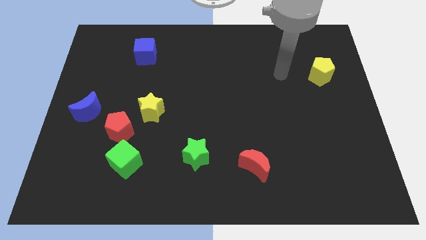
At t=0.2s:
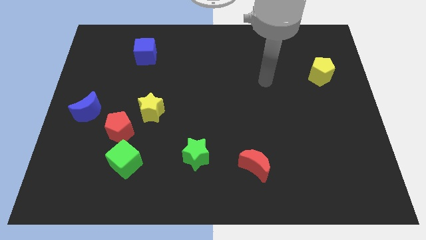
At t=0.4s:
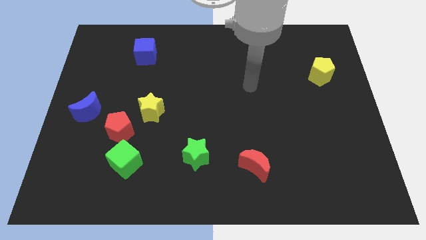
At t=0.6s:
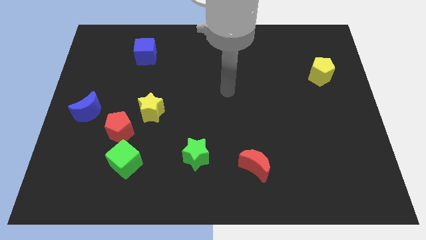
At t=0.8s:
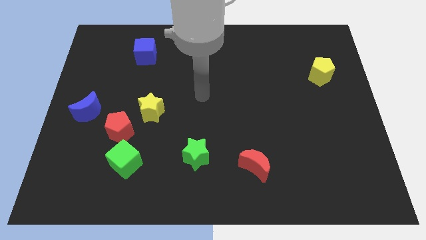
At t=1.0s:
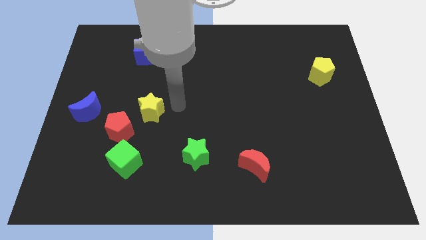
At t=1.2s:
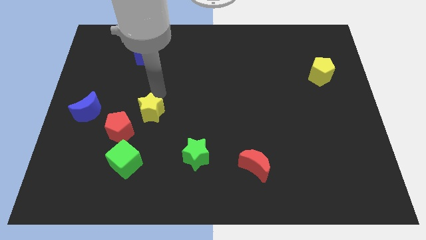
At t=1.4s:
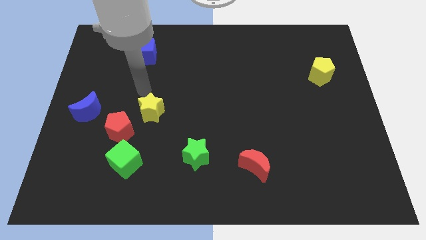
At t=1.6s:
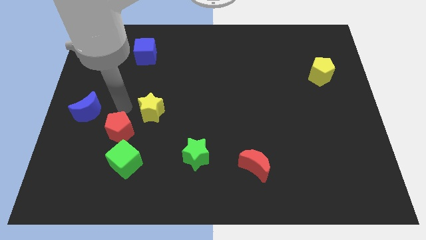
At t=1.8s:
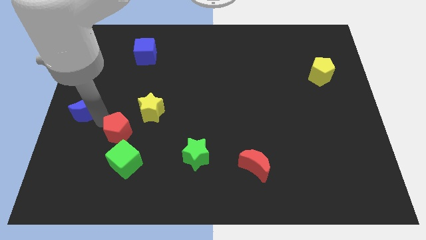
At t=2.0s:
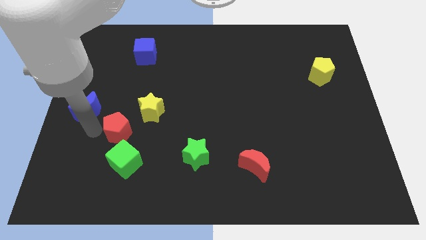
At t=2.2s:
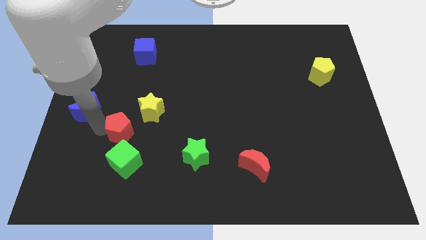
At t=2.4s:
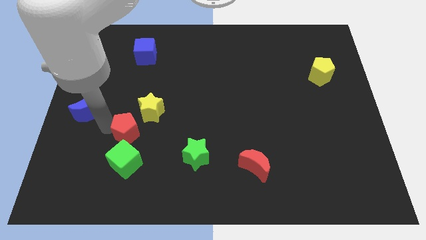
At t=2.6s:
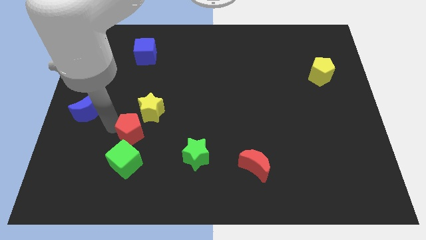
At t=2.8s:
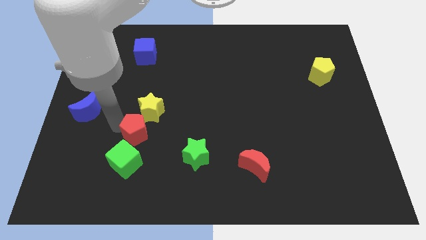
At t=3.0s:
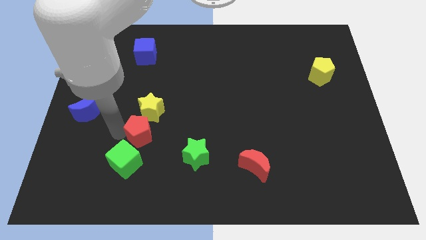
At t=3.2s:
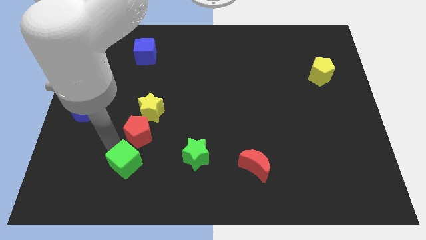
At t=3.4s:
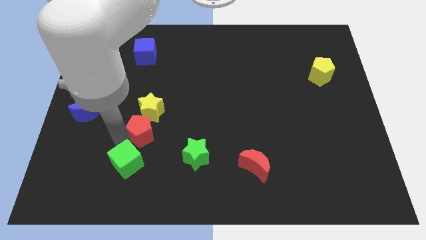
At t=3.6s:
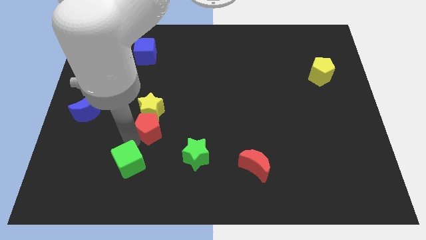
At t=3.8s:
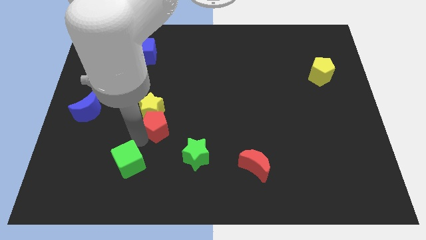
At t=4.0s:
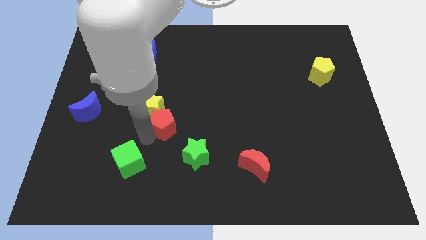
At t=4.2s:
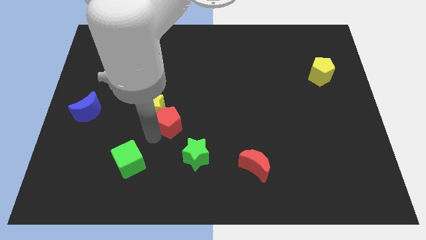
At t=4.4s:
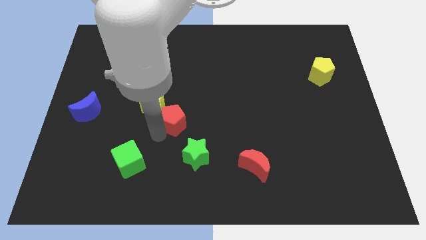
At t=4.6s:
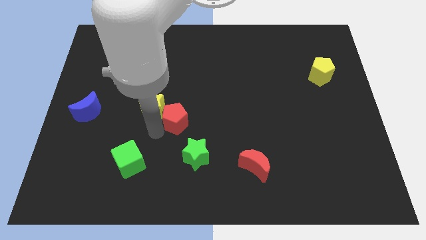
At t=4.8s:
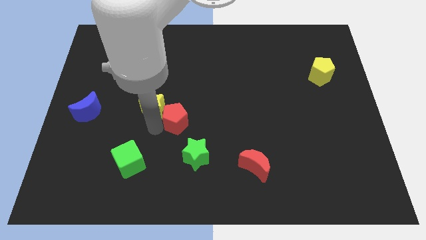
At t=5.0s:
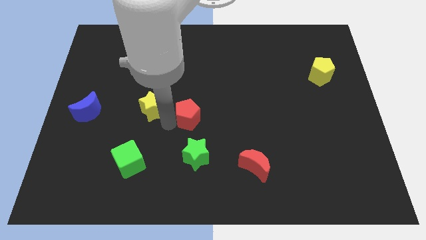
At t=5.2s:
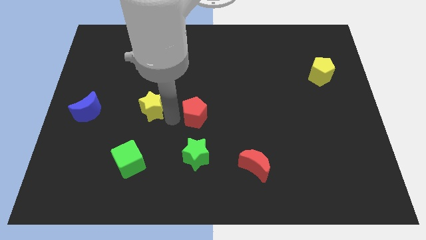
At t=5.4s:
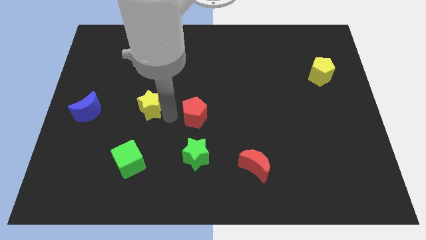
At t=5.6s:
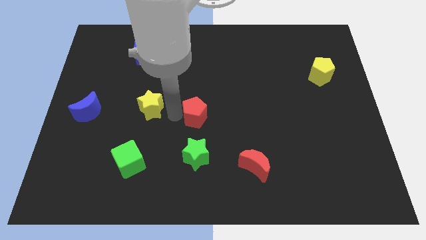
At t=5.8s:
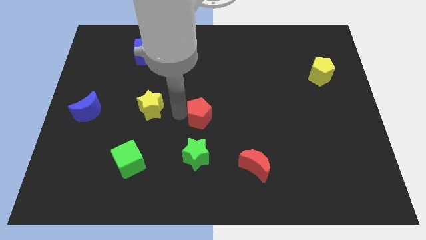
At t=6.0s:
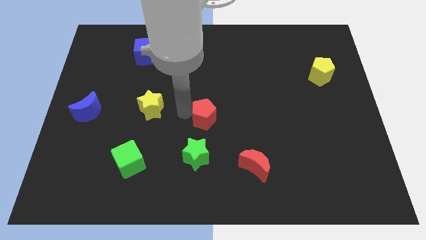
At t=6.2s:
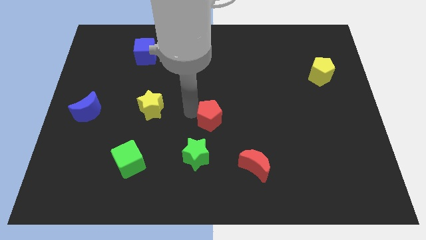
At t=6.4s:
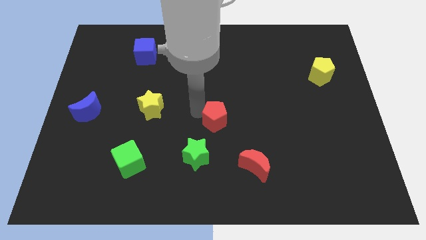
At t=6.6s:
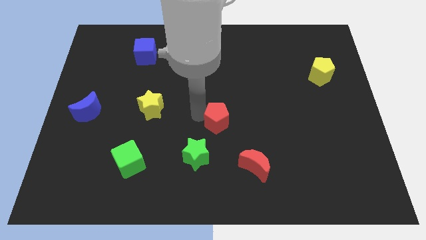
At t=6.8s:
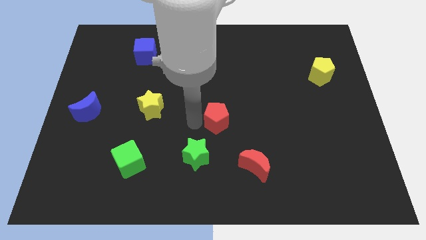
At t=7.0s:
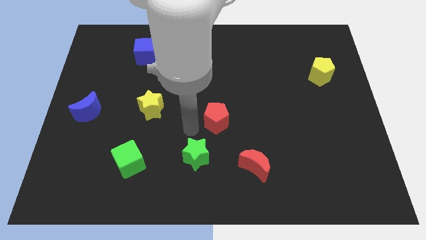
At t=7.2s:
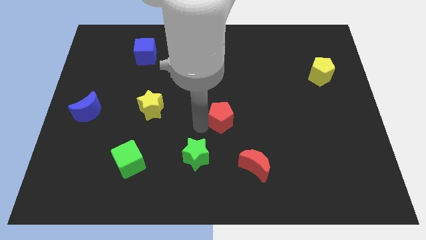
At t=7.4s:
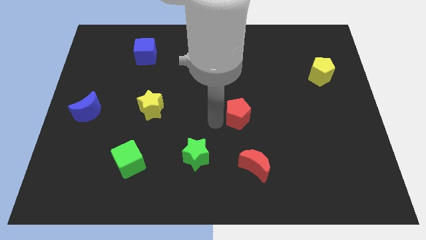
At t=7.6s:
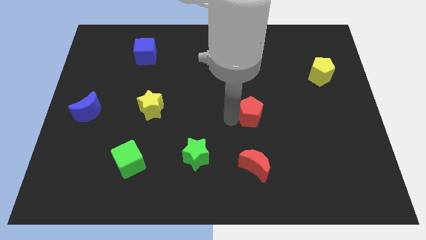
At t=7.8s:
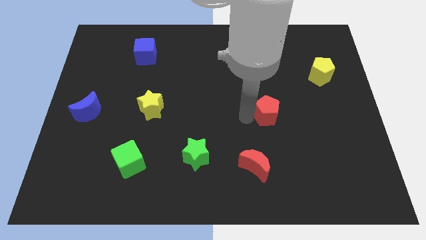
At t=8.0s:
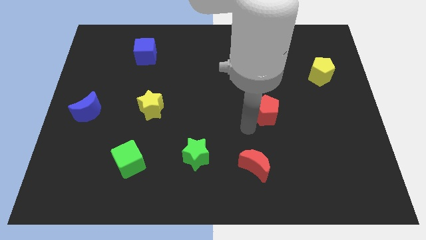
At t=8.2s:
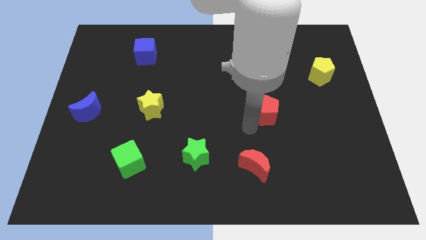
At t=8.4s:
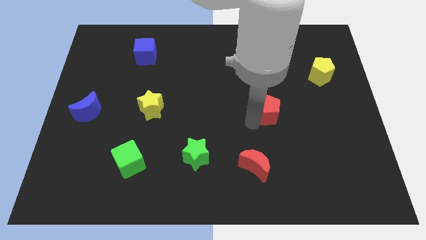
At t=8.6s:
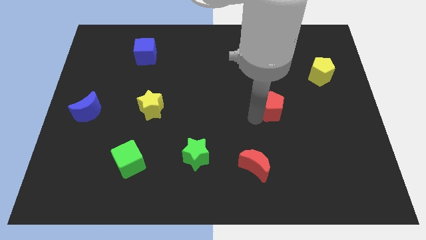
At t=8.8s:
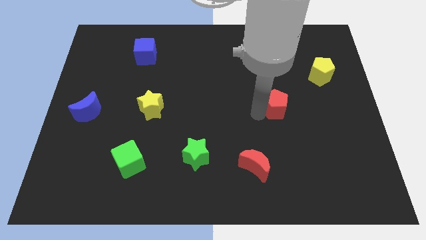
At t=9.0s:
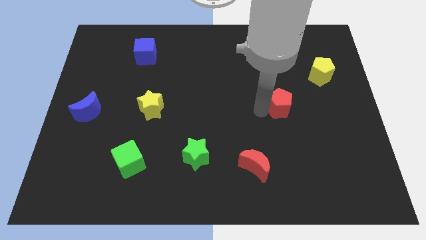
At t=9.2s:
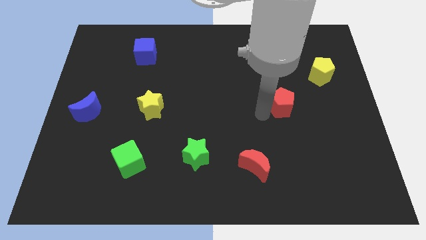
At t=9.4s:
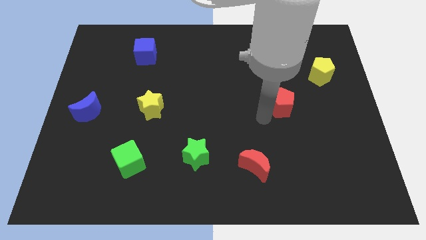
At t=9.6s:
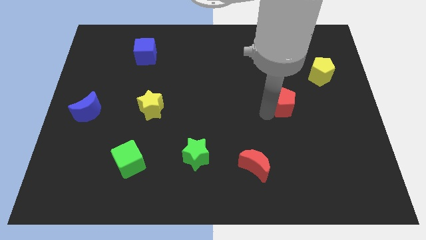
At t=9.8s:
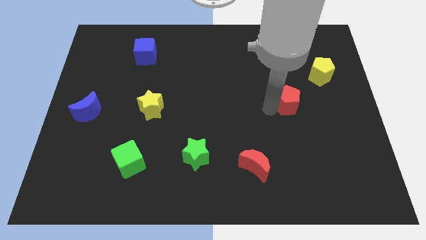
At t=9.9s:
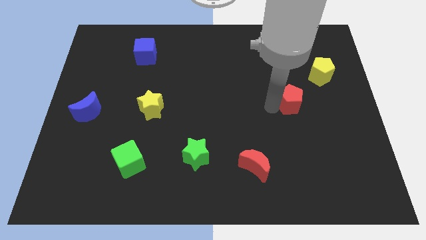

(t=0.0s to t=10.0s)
put the red pentagon to the bottom left of the yellow pentagon

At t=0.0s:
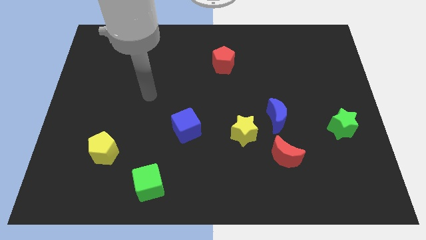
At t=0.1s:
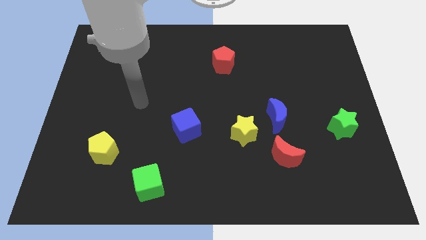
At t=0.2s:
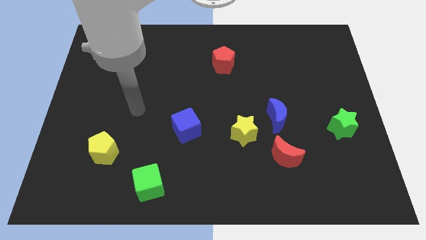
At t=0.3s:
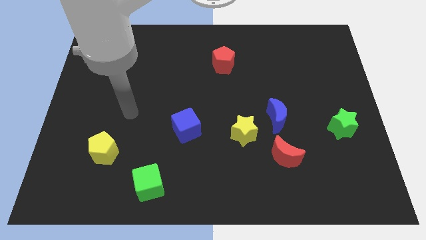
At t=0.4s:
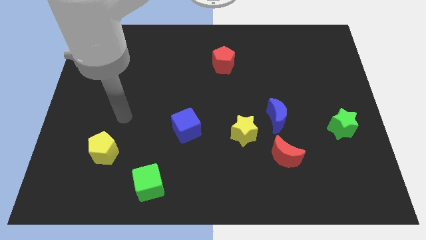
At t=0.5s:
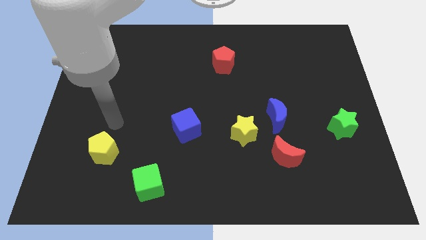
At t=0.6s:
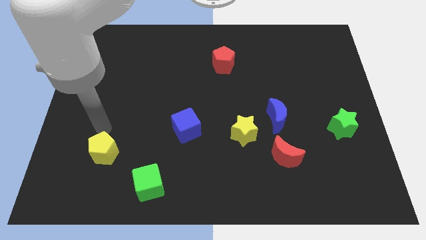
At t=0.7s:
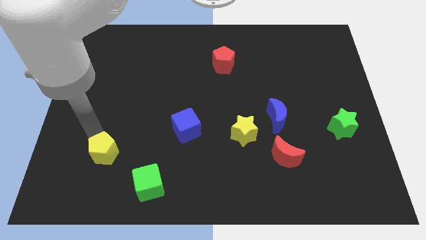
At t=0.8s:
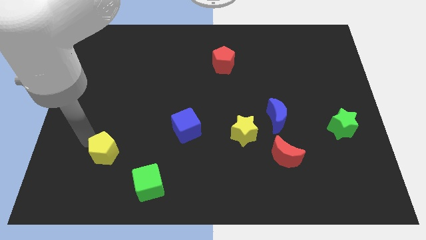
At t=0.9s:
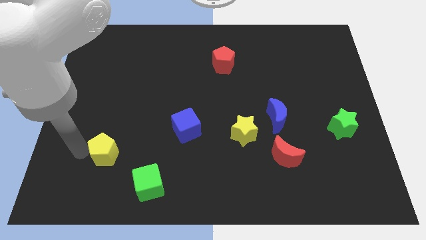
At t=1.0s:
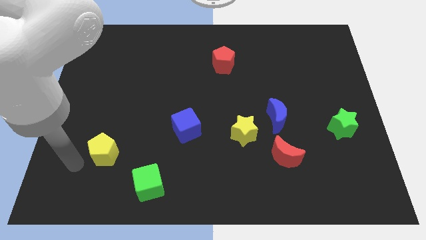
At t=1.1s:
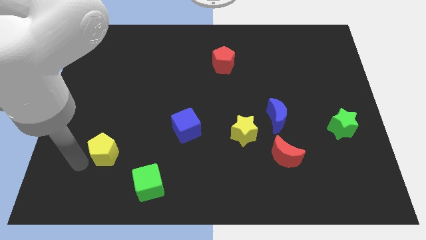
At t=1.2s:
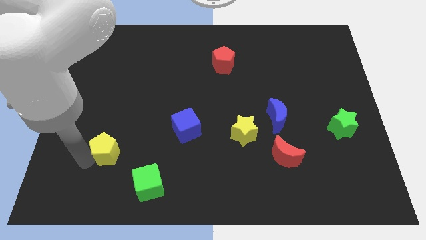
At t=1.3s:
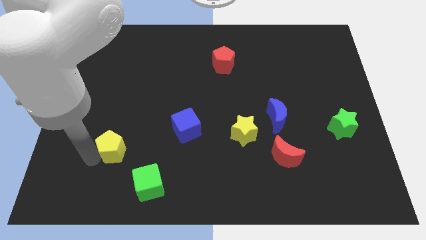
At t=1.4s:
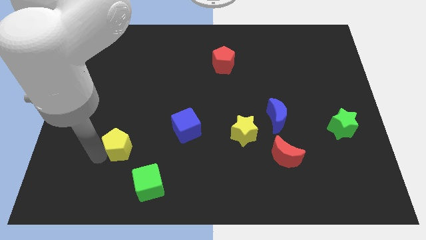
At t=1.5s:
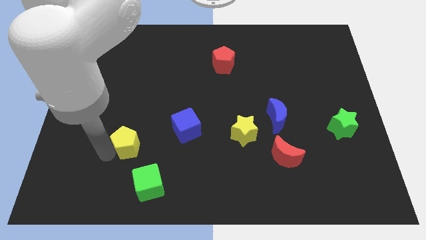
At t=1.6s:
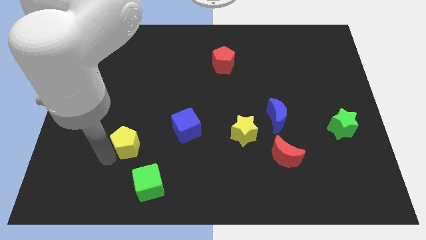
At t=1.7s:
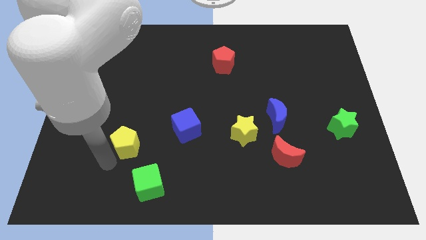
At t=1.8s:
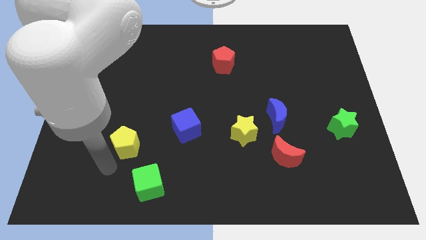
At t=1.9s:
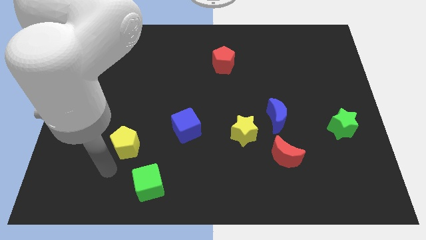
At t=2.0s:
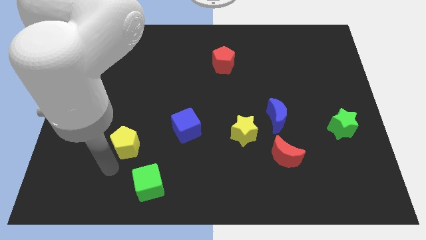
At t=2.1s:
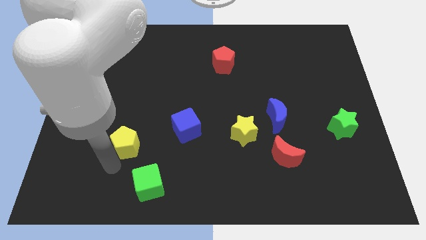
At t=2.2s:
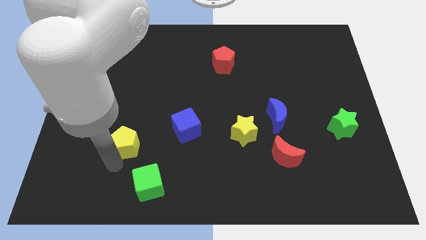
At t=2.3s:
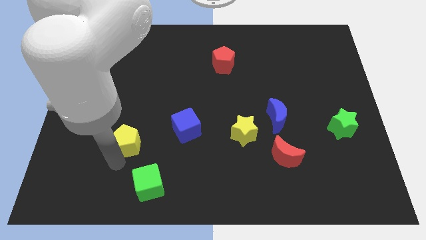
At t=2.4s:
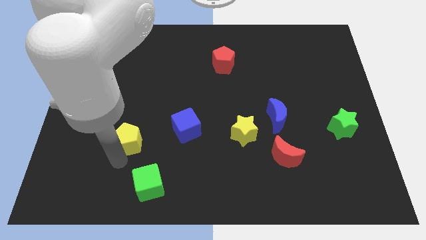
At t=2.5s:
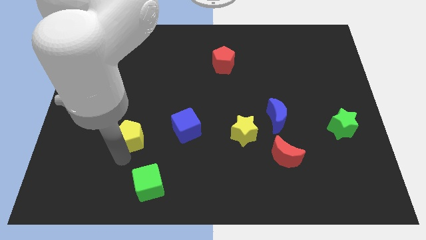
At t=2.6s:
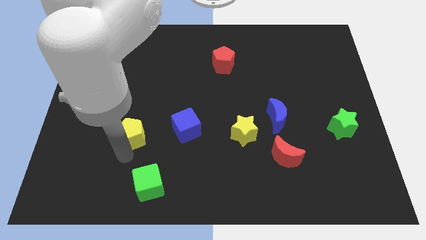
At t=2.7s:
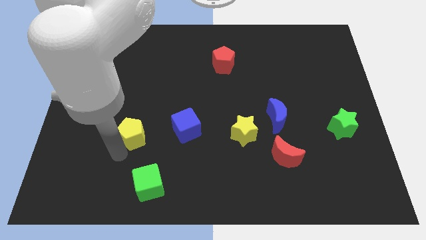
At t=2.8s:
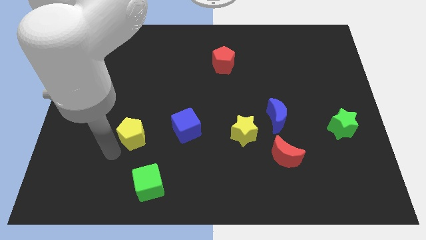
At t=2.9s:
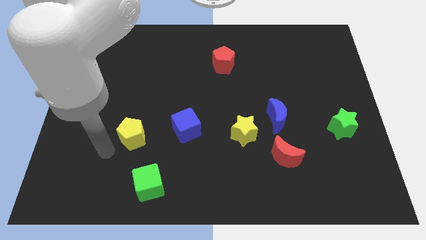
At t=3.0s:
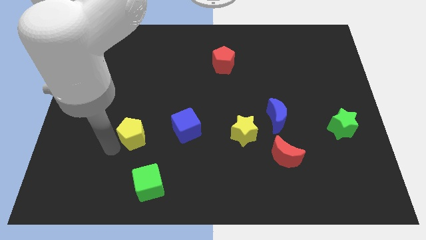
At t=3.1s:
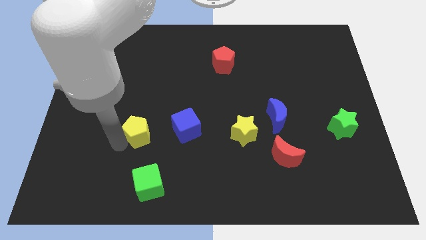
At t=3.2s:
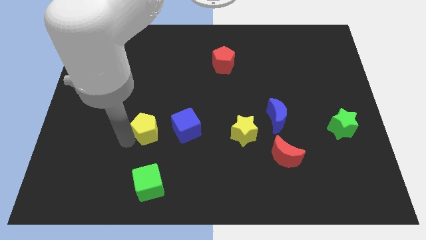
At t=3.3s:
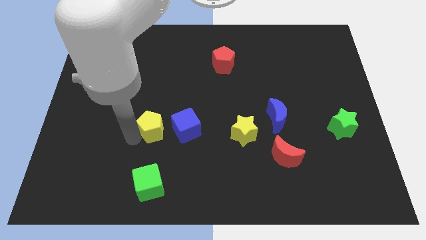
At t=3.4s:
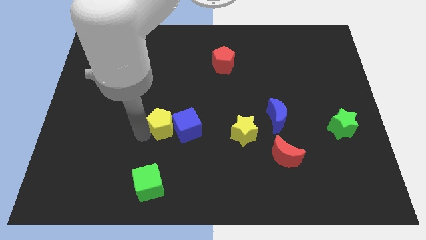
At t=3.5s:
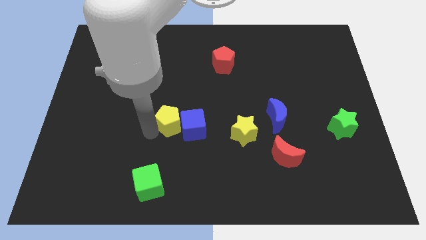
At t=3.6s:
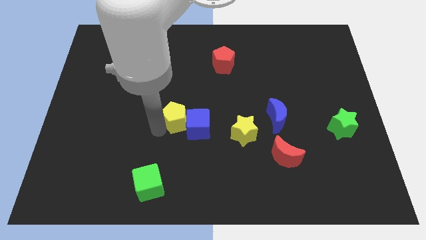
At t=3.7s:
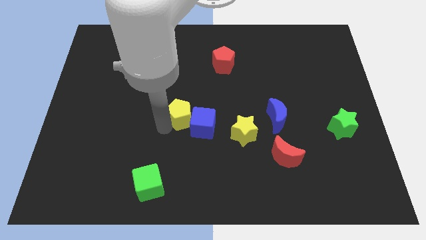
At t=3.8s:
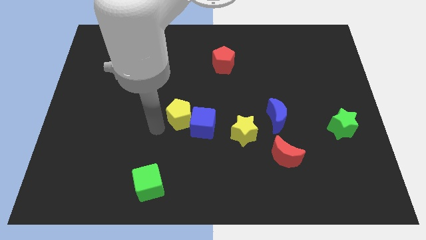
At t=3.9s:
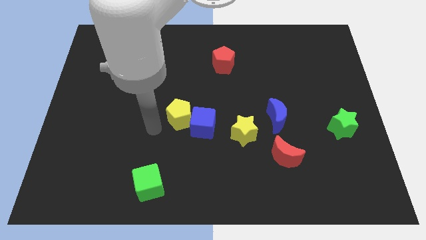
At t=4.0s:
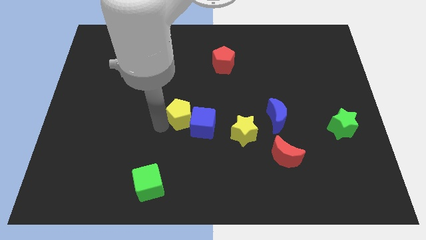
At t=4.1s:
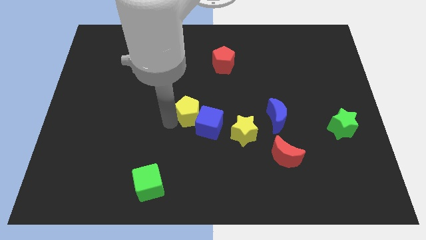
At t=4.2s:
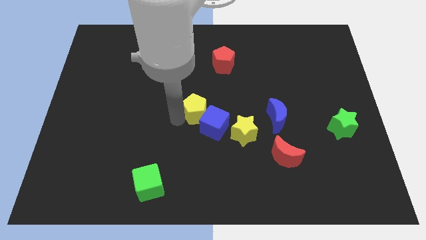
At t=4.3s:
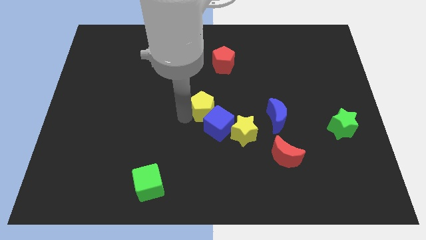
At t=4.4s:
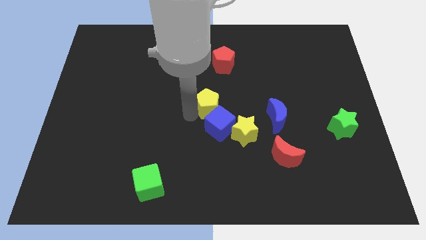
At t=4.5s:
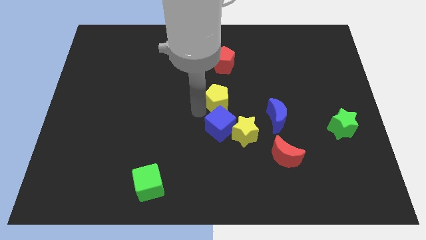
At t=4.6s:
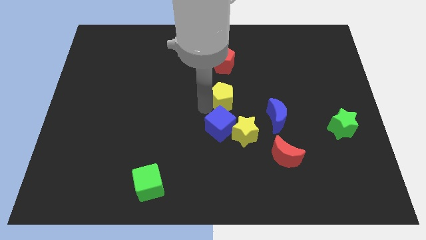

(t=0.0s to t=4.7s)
move the yellow pentagon to the top side of the yellow star
